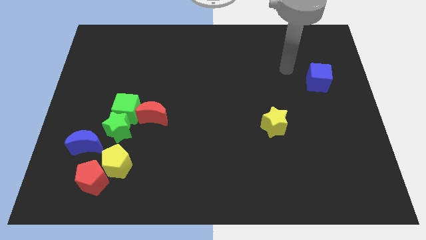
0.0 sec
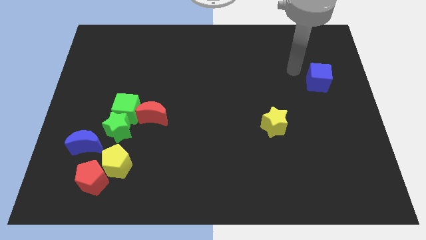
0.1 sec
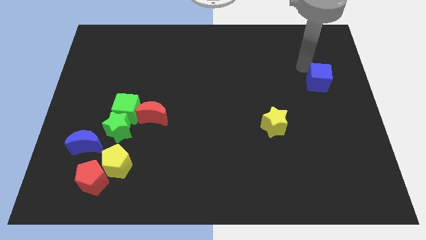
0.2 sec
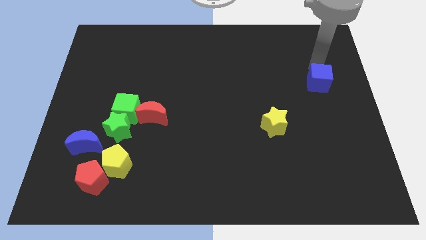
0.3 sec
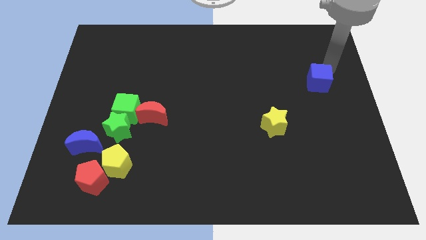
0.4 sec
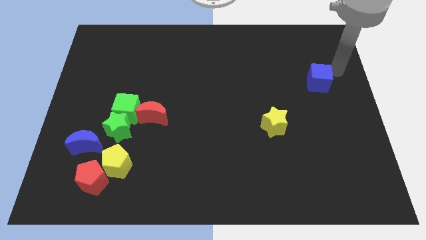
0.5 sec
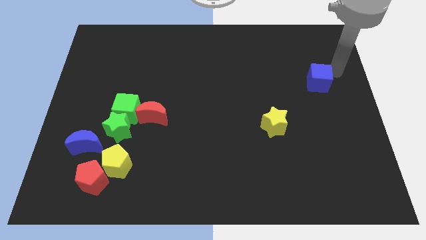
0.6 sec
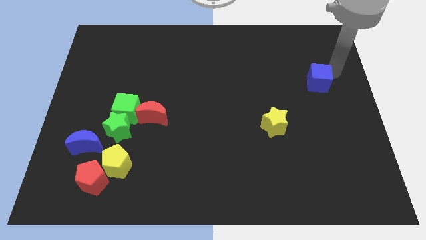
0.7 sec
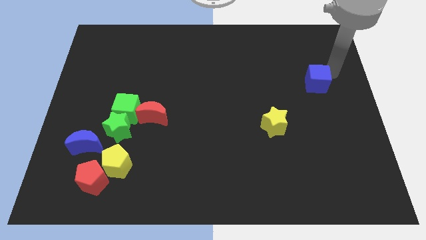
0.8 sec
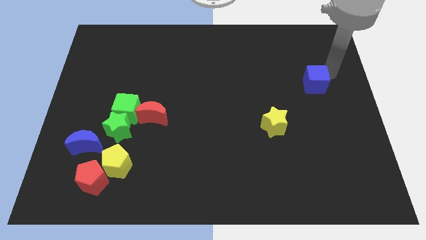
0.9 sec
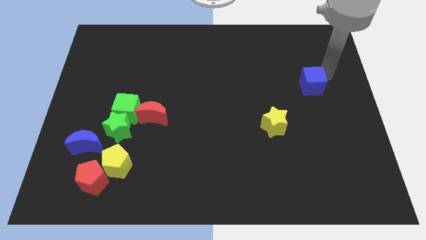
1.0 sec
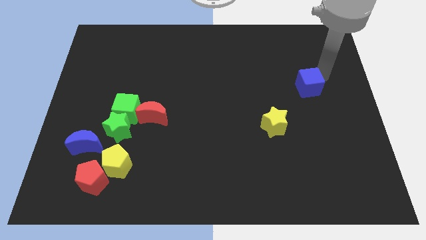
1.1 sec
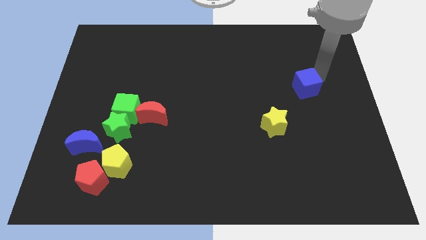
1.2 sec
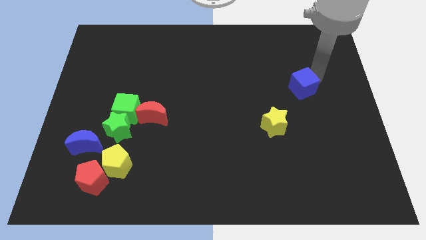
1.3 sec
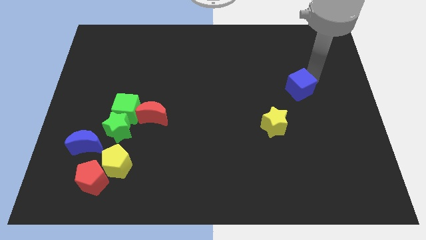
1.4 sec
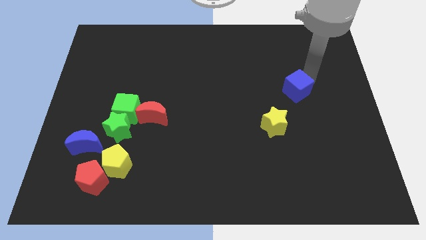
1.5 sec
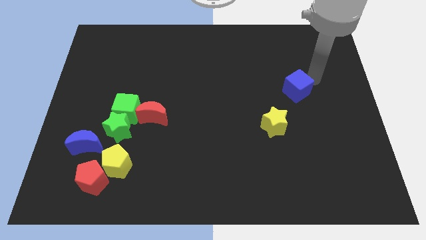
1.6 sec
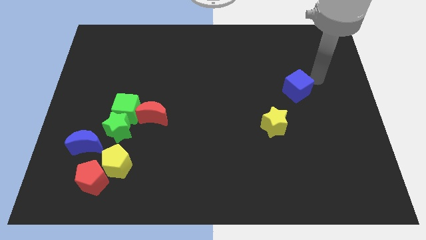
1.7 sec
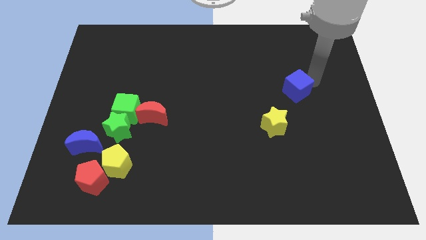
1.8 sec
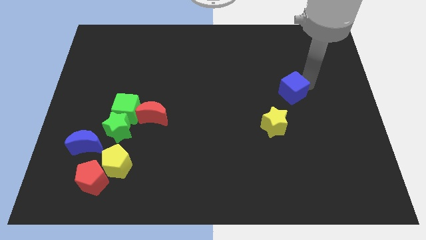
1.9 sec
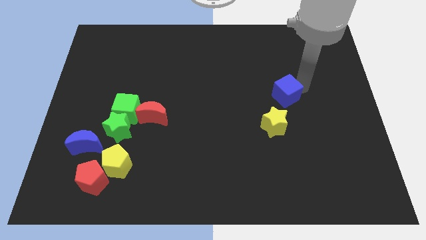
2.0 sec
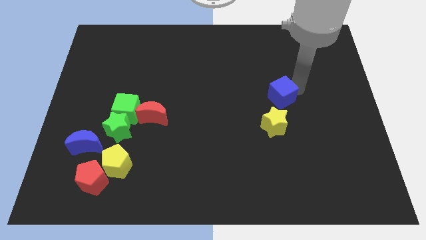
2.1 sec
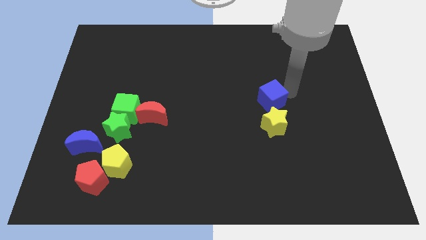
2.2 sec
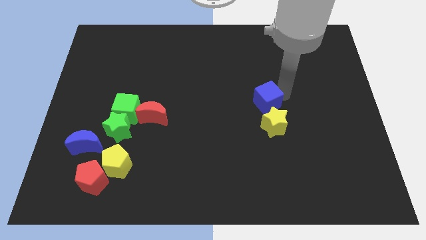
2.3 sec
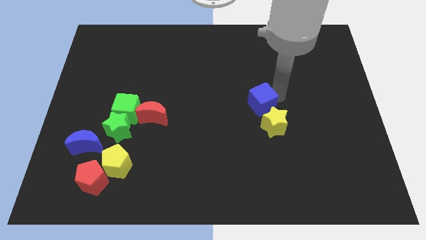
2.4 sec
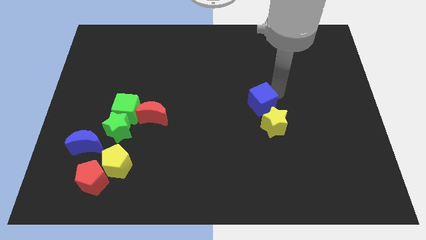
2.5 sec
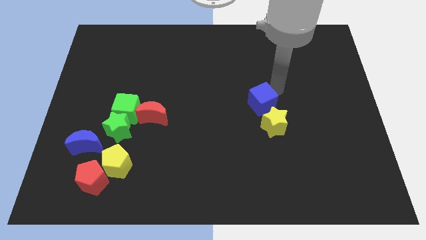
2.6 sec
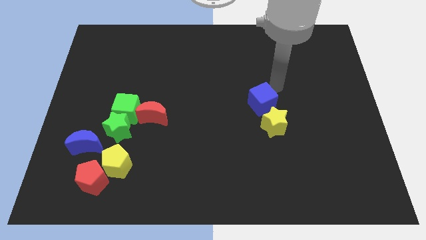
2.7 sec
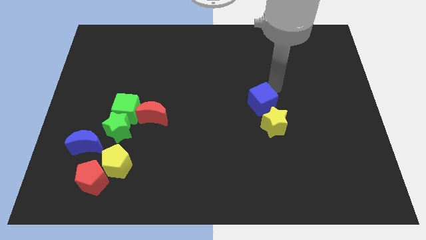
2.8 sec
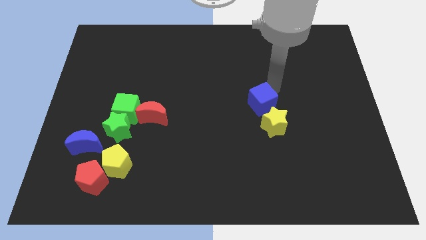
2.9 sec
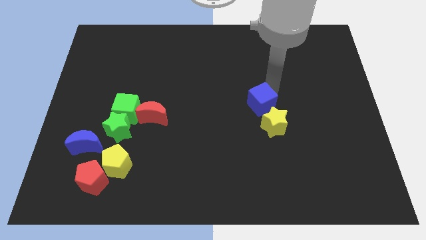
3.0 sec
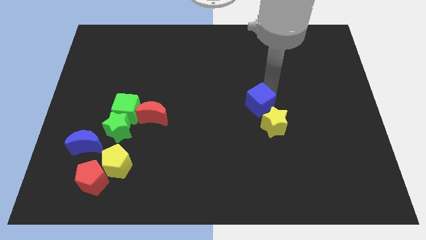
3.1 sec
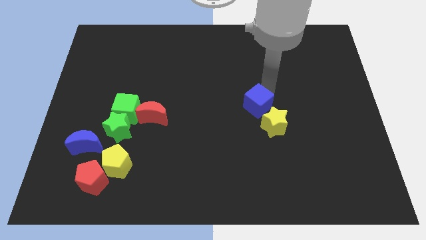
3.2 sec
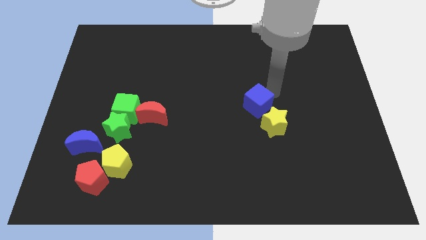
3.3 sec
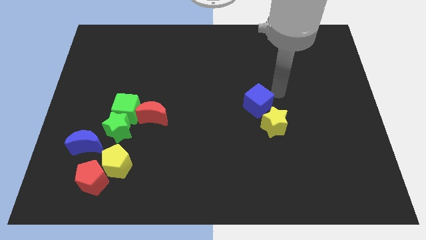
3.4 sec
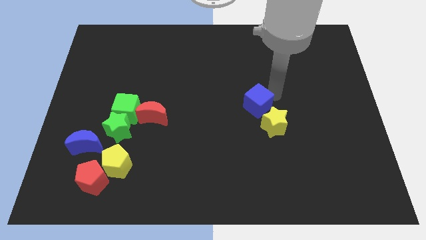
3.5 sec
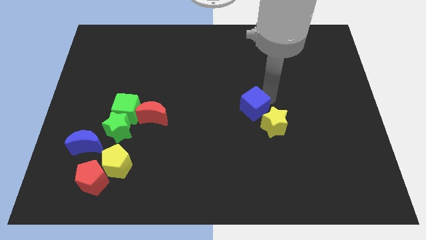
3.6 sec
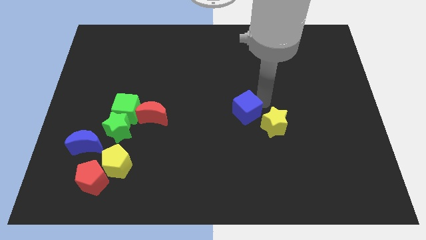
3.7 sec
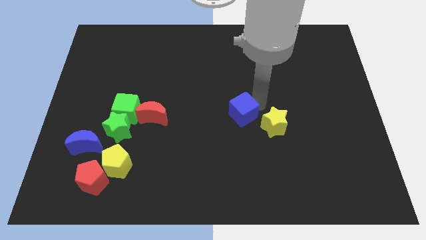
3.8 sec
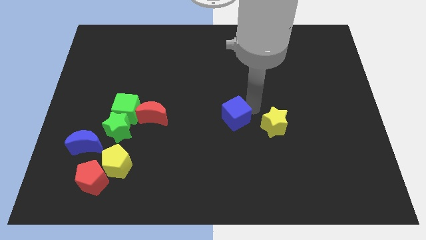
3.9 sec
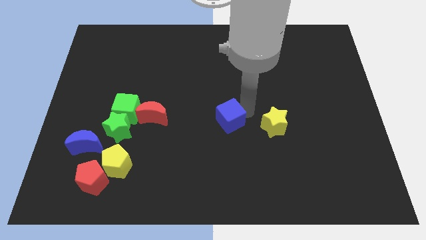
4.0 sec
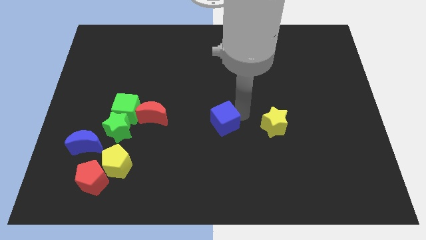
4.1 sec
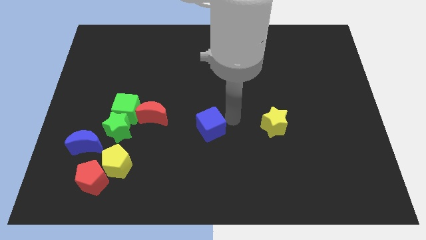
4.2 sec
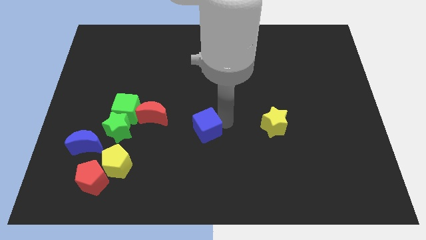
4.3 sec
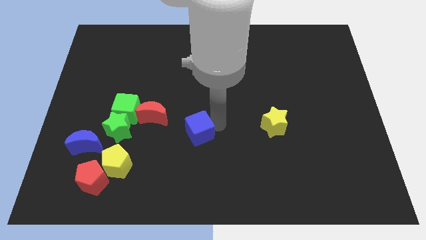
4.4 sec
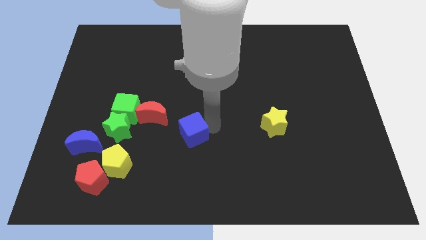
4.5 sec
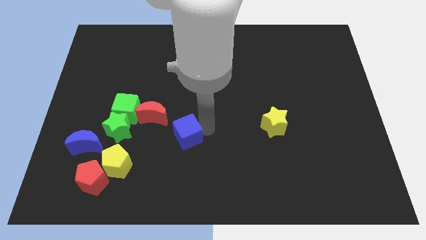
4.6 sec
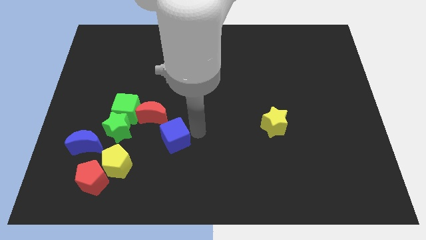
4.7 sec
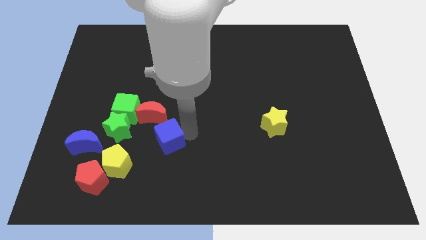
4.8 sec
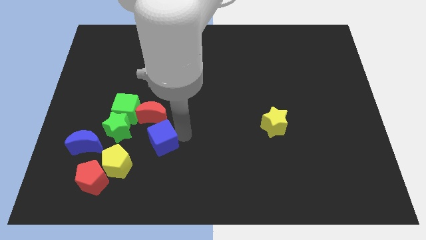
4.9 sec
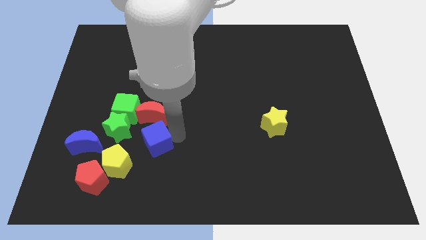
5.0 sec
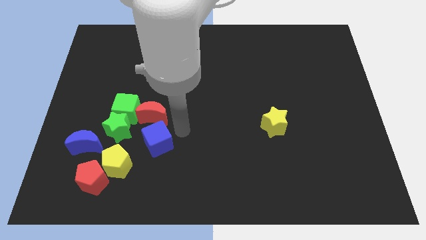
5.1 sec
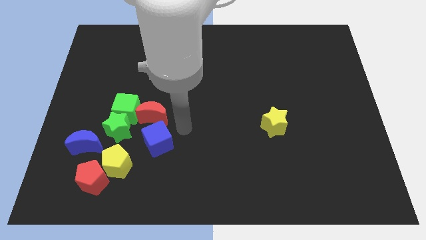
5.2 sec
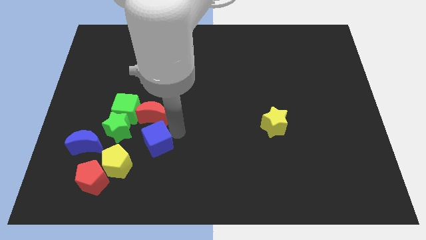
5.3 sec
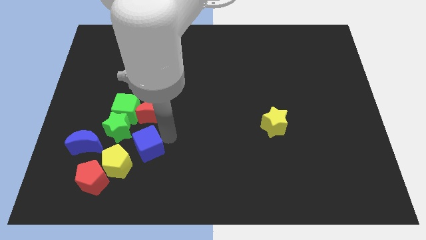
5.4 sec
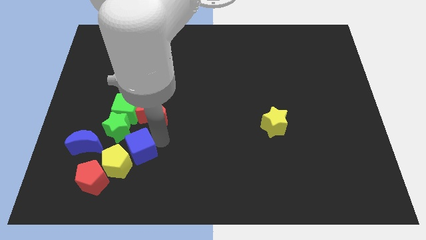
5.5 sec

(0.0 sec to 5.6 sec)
put the blue cube to the yellow pentagon

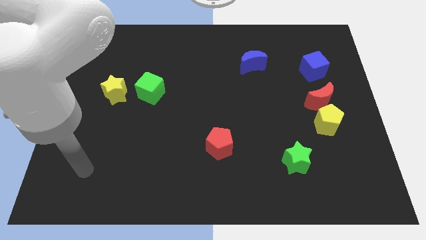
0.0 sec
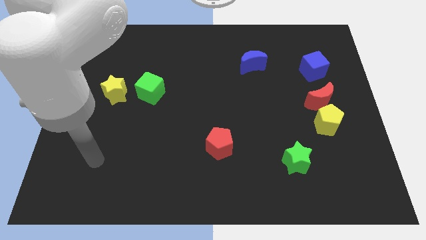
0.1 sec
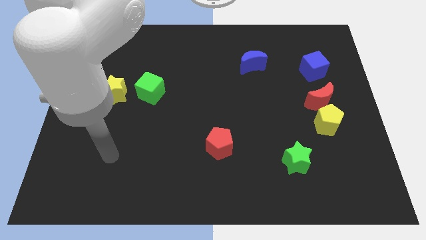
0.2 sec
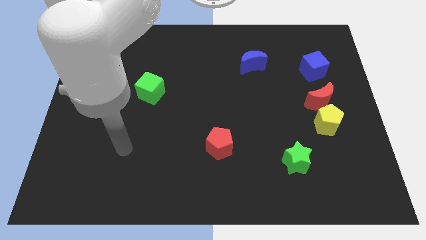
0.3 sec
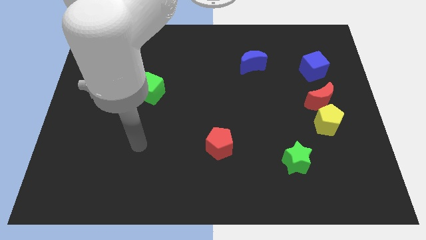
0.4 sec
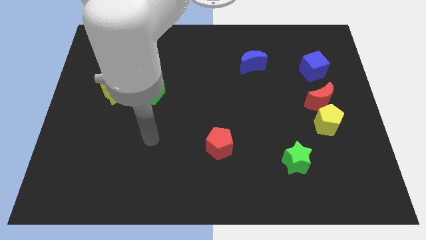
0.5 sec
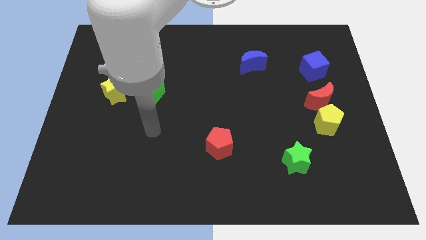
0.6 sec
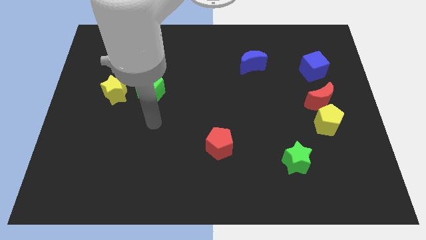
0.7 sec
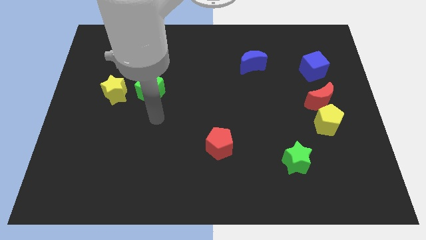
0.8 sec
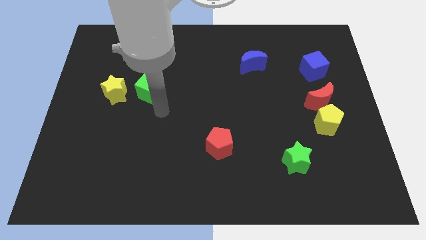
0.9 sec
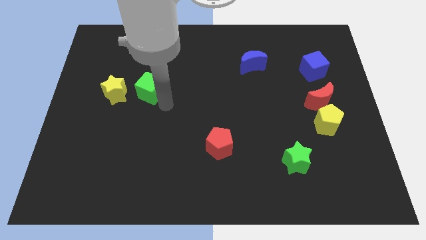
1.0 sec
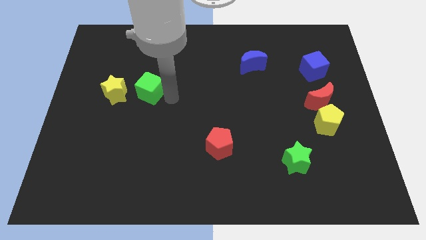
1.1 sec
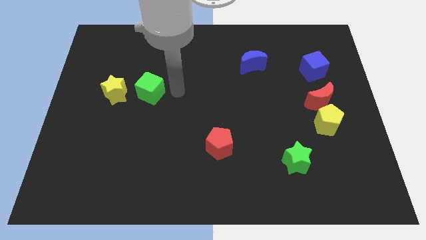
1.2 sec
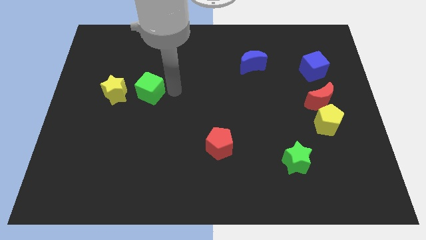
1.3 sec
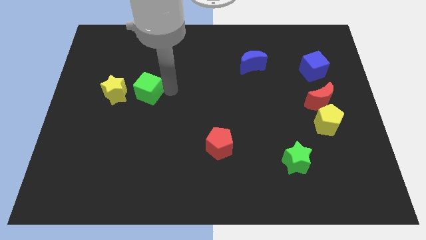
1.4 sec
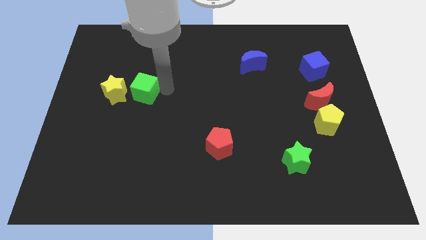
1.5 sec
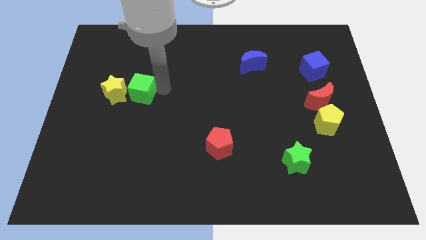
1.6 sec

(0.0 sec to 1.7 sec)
slide the green cube close to the yellow star
